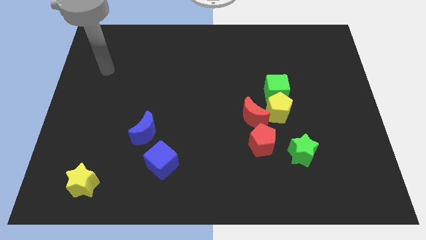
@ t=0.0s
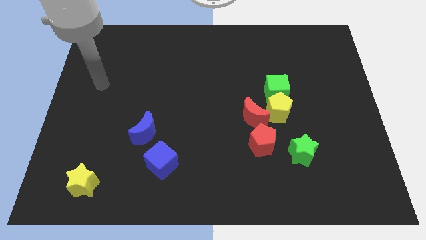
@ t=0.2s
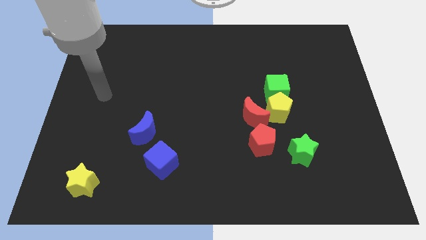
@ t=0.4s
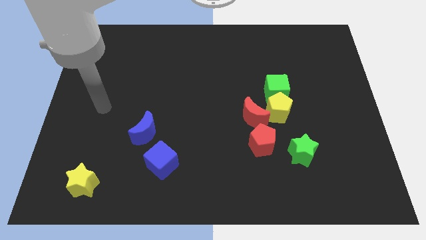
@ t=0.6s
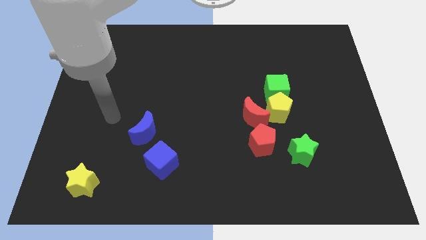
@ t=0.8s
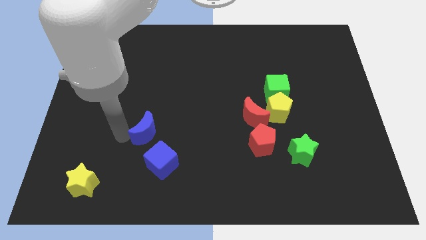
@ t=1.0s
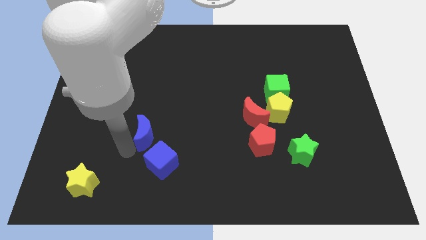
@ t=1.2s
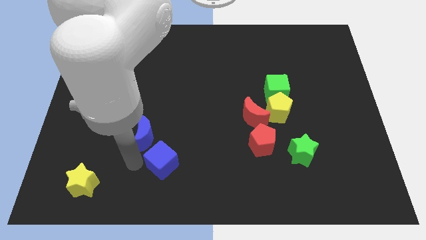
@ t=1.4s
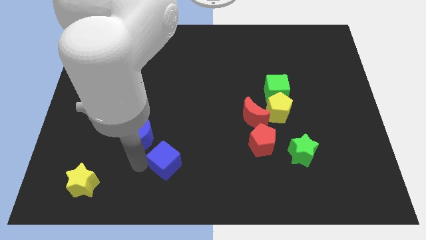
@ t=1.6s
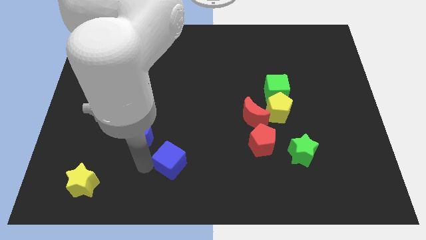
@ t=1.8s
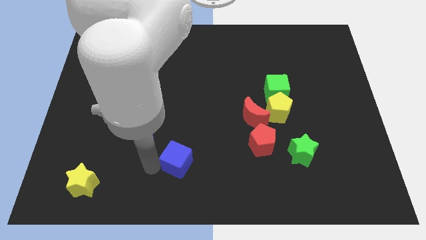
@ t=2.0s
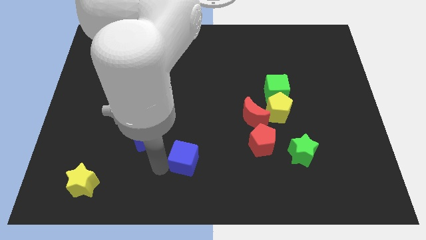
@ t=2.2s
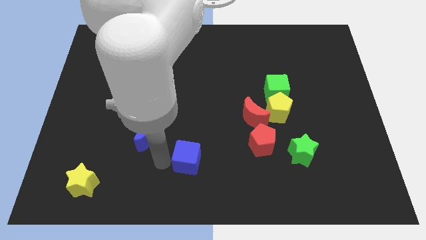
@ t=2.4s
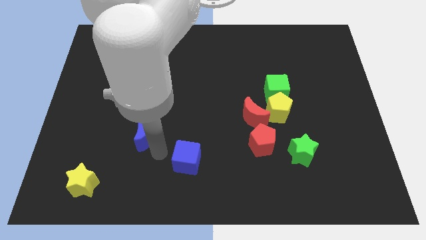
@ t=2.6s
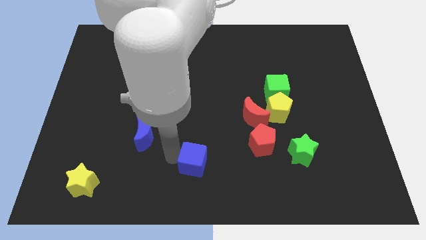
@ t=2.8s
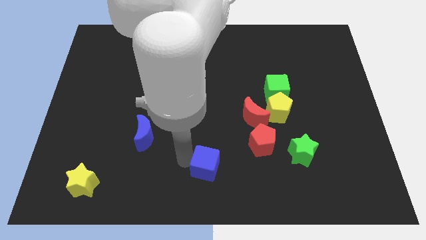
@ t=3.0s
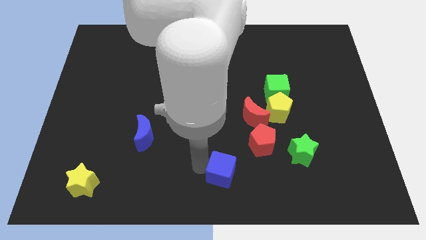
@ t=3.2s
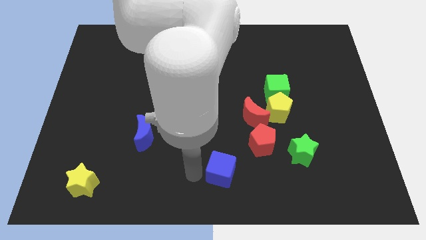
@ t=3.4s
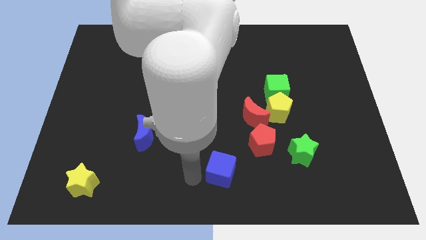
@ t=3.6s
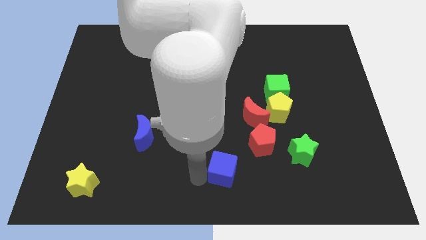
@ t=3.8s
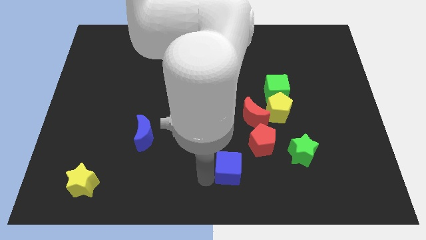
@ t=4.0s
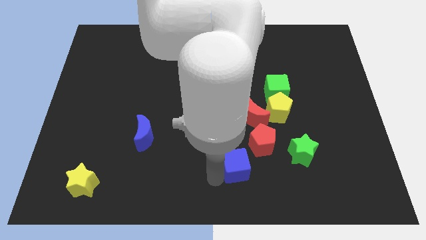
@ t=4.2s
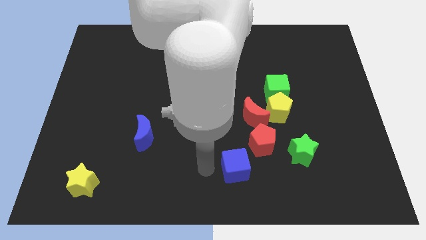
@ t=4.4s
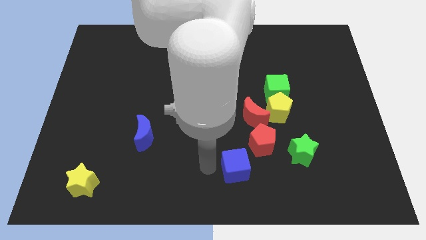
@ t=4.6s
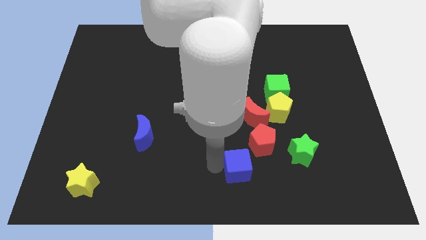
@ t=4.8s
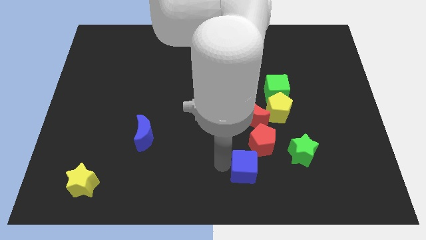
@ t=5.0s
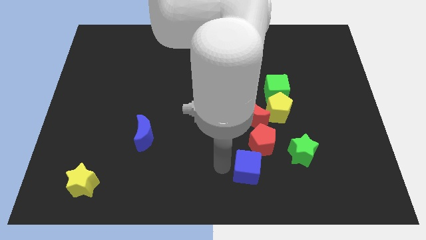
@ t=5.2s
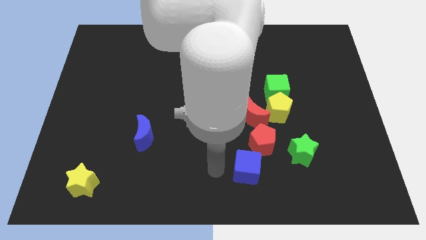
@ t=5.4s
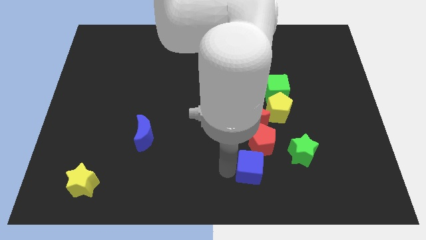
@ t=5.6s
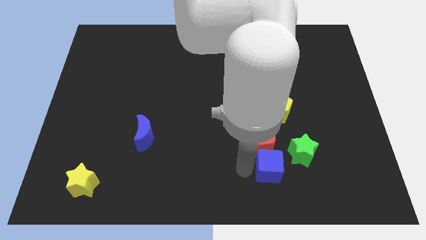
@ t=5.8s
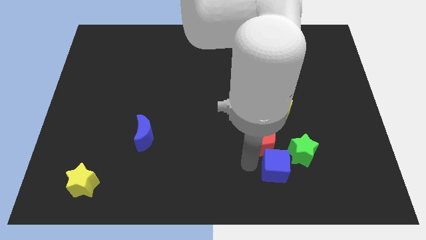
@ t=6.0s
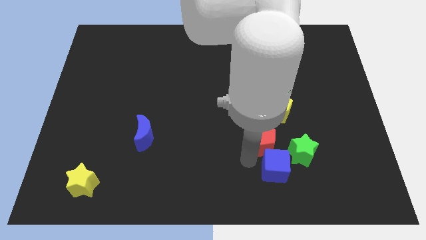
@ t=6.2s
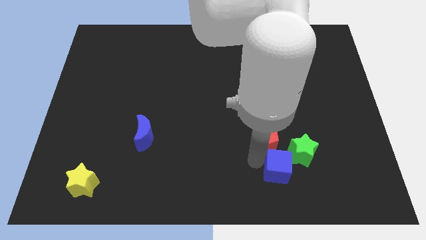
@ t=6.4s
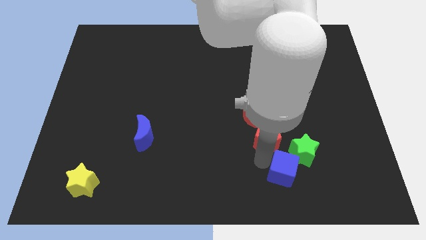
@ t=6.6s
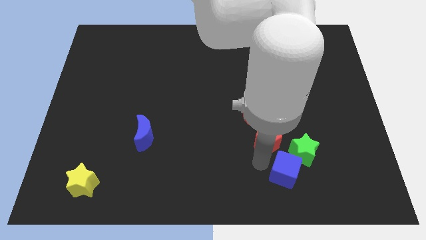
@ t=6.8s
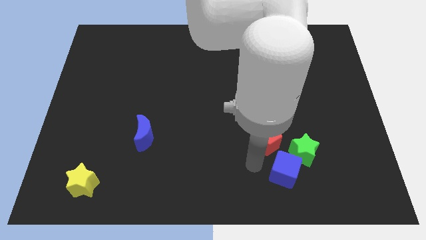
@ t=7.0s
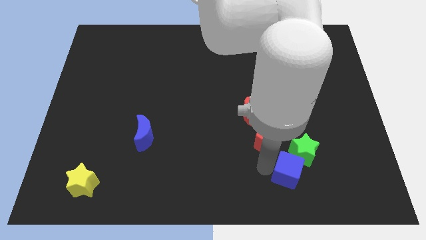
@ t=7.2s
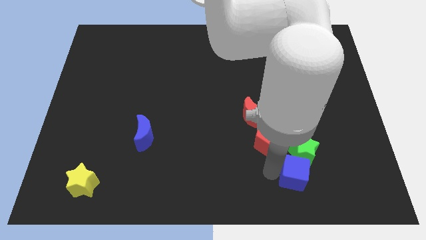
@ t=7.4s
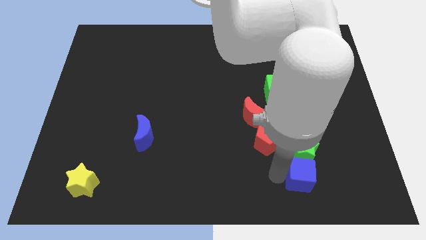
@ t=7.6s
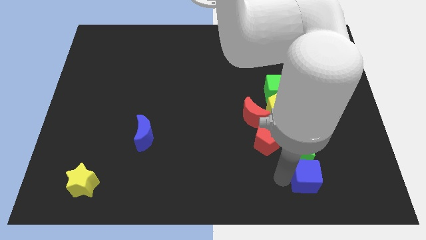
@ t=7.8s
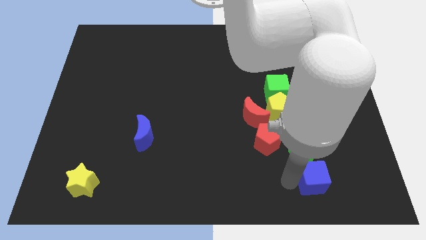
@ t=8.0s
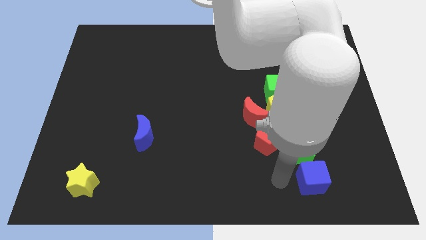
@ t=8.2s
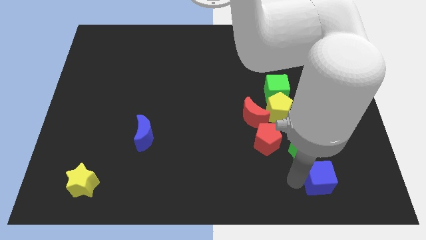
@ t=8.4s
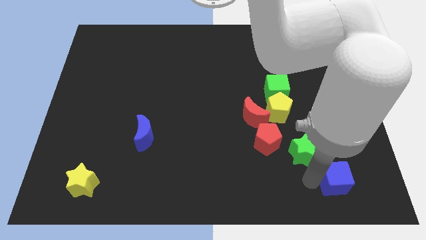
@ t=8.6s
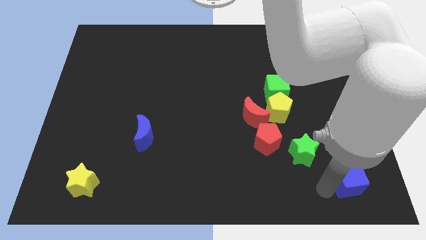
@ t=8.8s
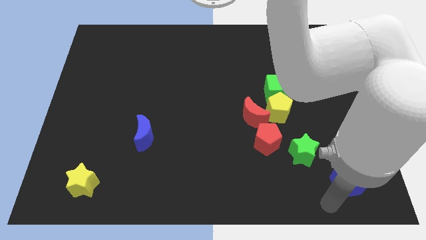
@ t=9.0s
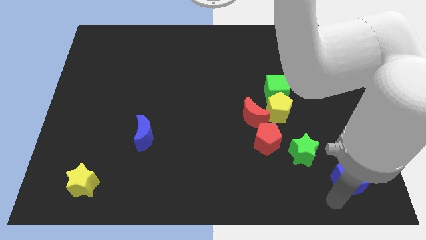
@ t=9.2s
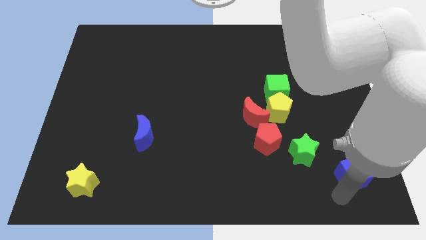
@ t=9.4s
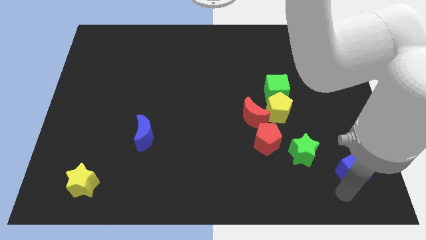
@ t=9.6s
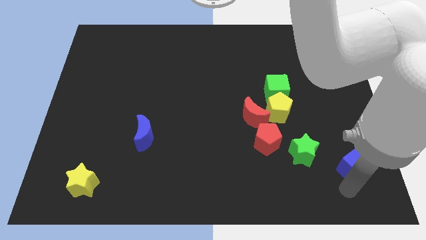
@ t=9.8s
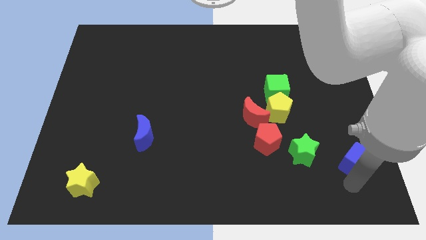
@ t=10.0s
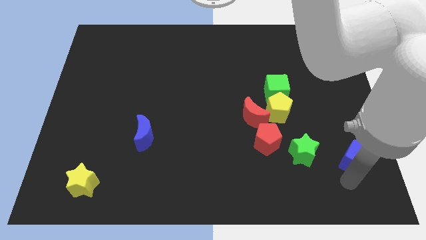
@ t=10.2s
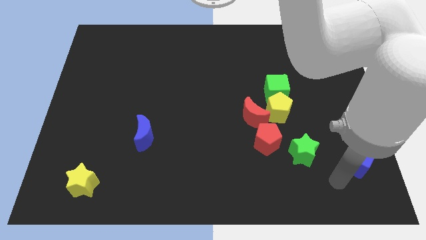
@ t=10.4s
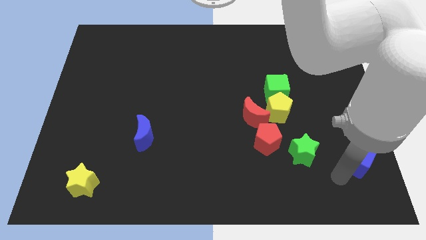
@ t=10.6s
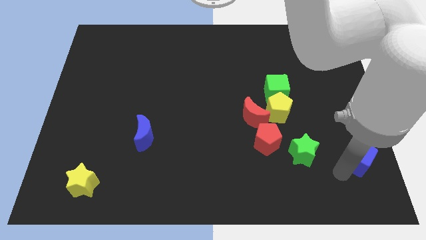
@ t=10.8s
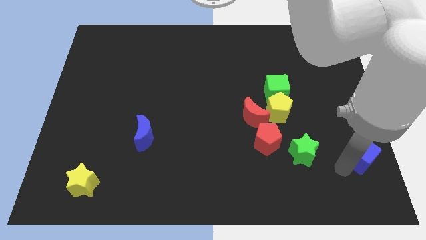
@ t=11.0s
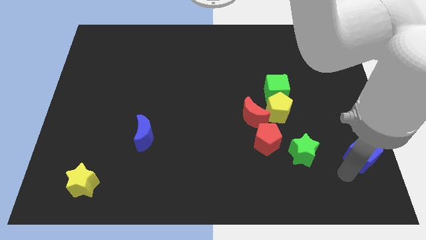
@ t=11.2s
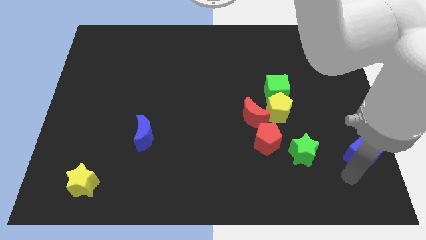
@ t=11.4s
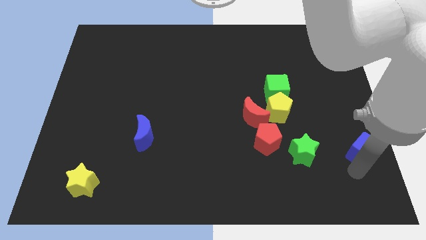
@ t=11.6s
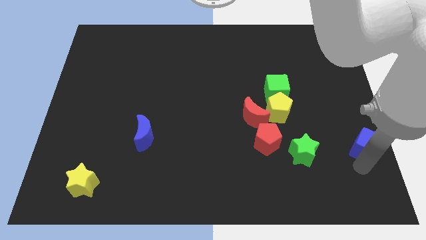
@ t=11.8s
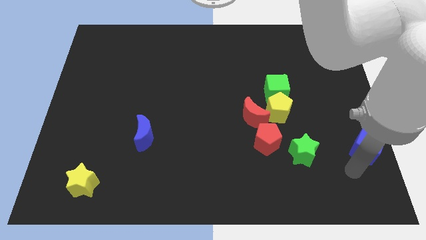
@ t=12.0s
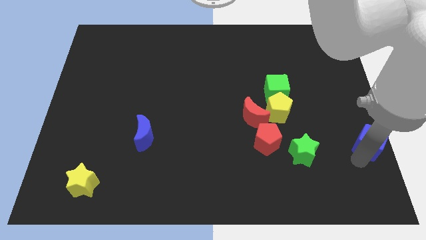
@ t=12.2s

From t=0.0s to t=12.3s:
move the blue cube to the right side of the board
